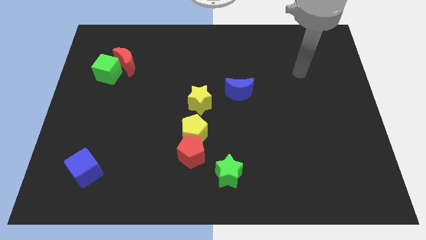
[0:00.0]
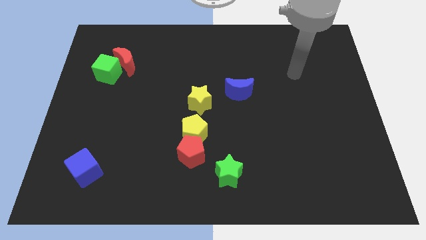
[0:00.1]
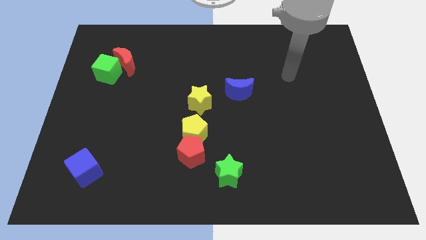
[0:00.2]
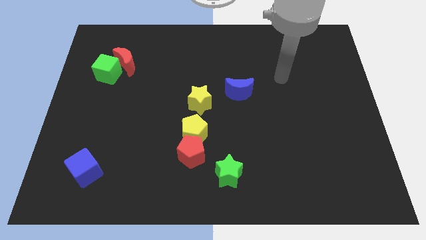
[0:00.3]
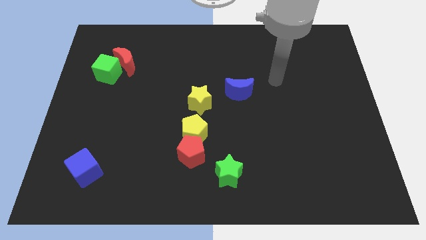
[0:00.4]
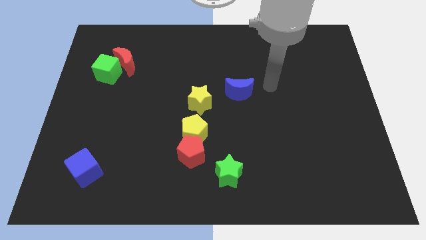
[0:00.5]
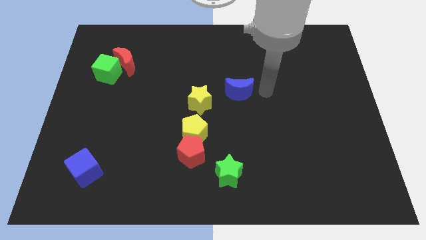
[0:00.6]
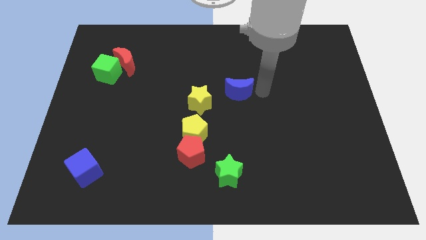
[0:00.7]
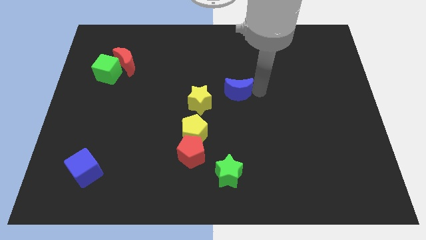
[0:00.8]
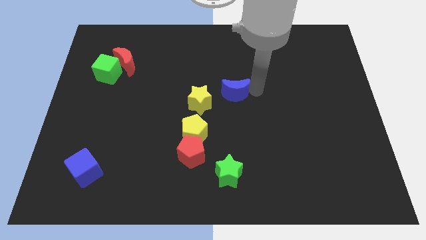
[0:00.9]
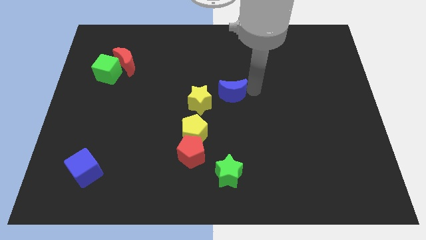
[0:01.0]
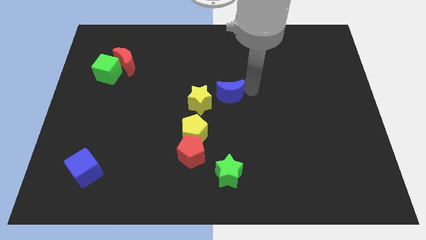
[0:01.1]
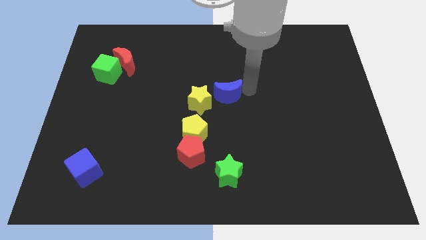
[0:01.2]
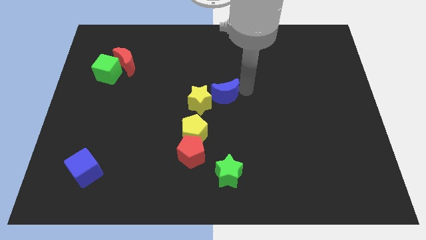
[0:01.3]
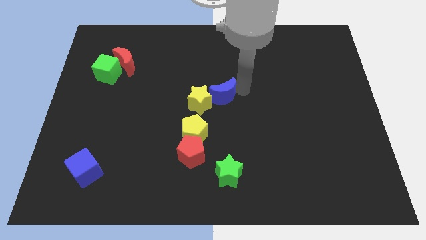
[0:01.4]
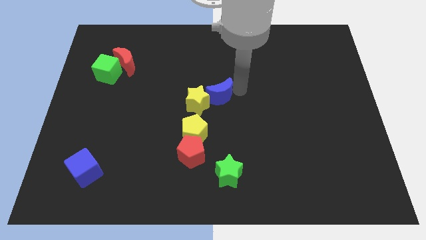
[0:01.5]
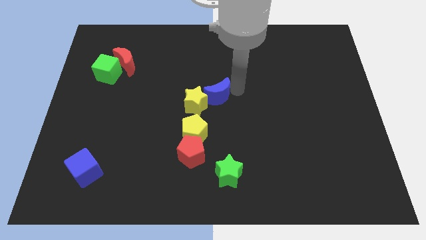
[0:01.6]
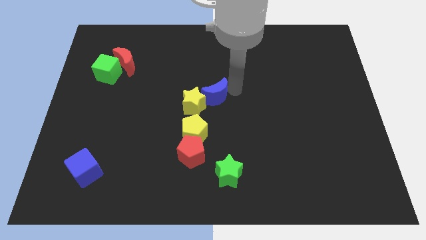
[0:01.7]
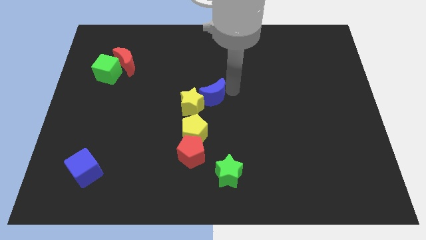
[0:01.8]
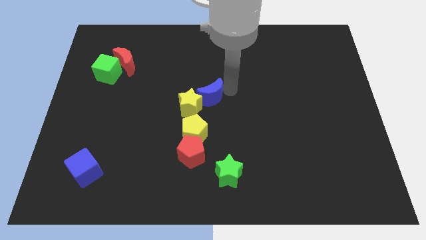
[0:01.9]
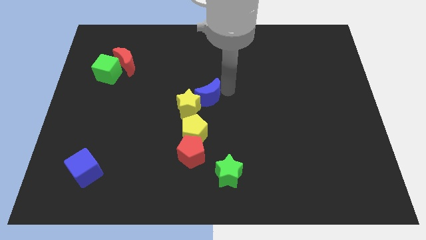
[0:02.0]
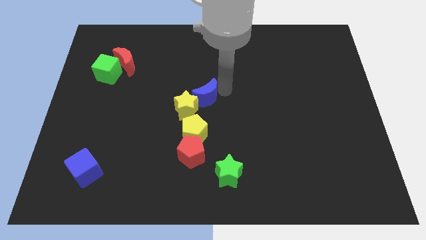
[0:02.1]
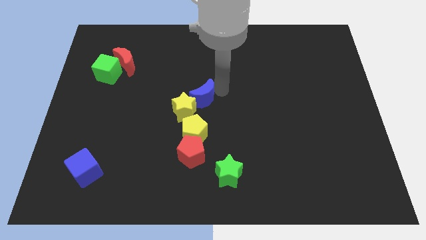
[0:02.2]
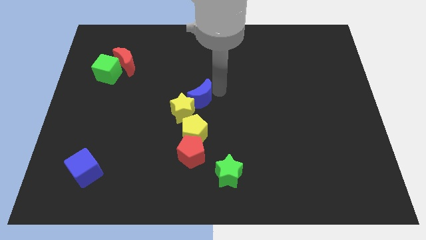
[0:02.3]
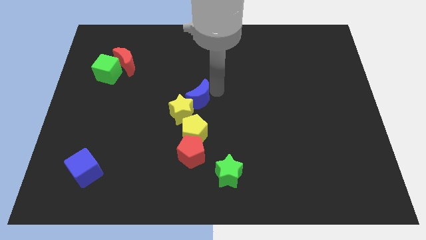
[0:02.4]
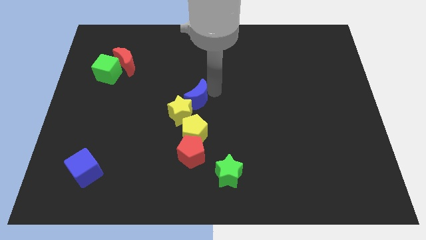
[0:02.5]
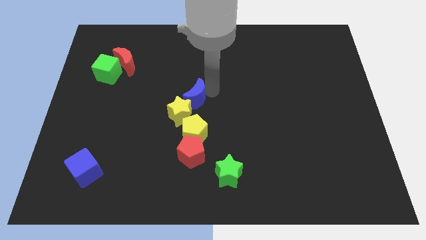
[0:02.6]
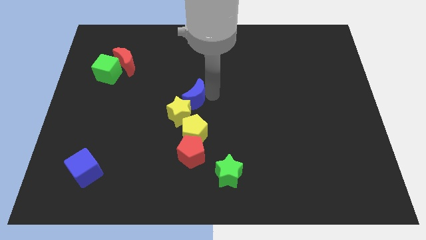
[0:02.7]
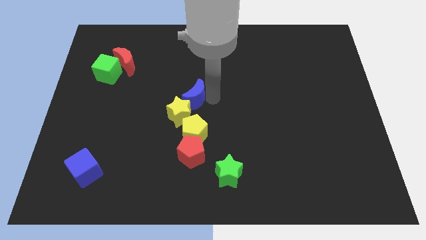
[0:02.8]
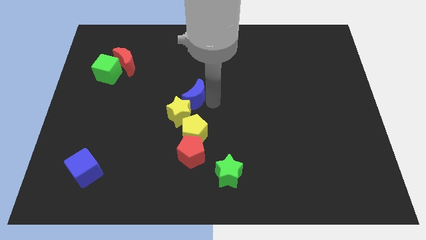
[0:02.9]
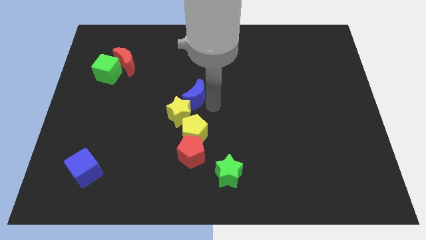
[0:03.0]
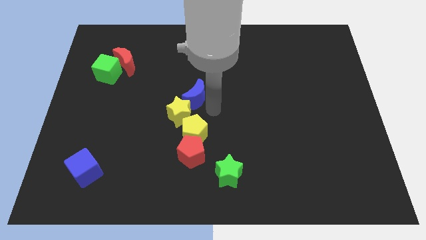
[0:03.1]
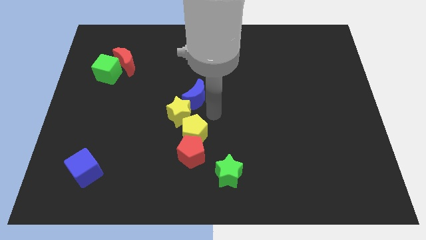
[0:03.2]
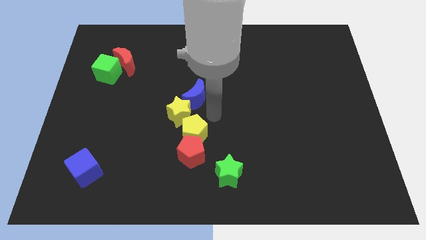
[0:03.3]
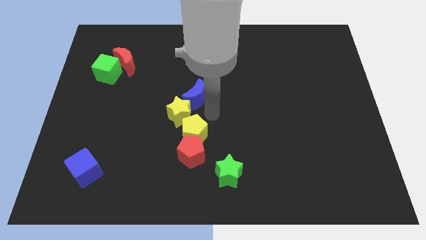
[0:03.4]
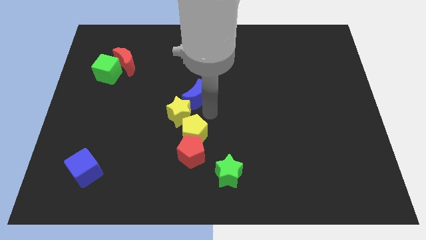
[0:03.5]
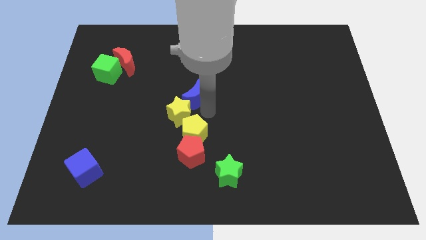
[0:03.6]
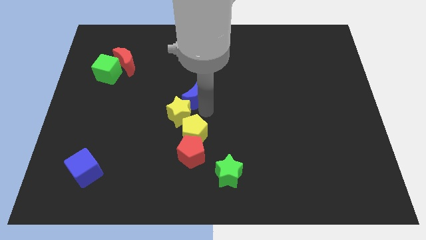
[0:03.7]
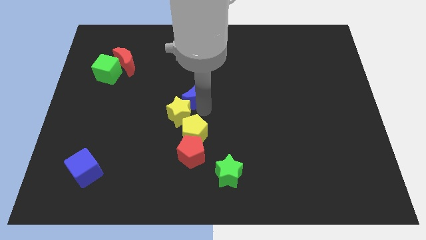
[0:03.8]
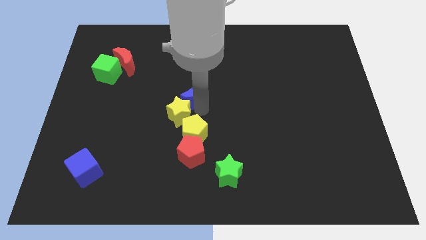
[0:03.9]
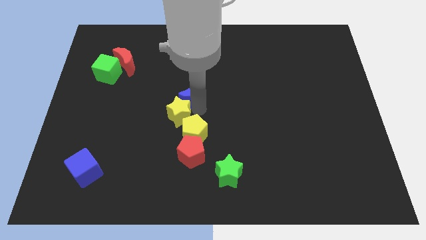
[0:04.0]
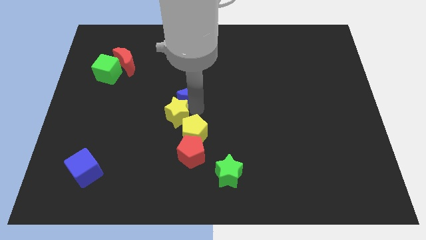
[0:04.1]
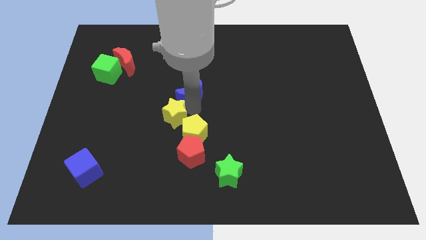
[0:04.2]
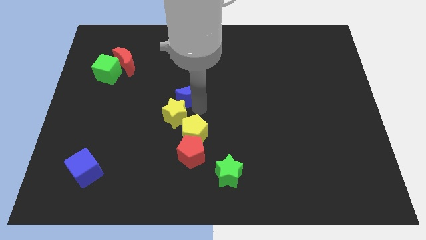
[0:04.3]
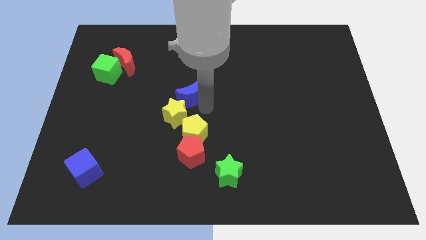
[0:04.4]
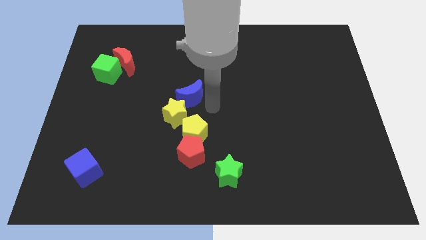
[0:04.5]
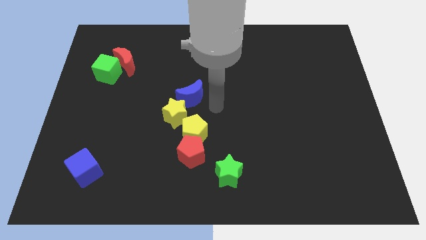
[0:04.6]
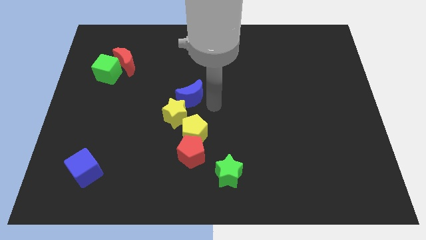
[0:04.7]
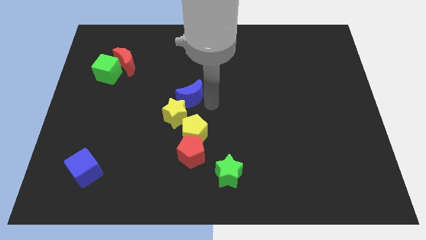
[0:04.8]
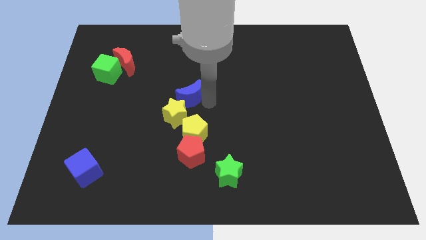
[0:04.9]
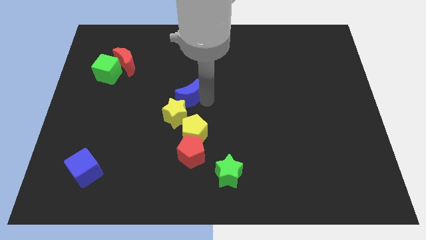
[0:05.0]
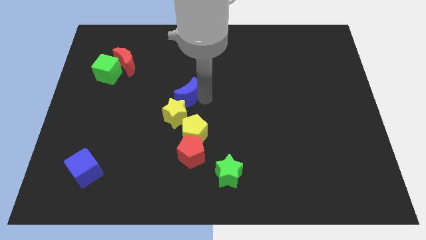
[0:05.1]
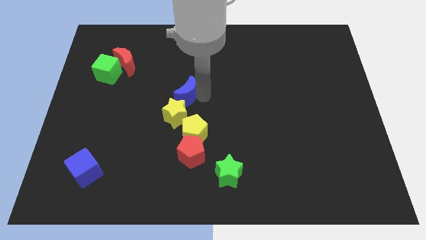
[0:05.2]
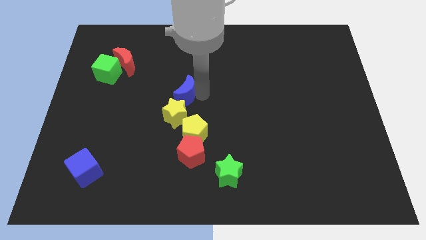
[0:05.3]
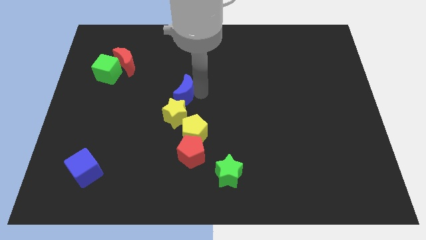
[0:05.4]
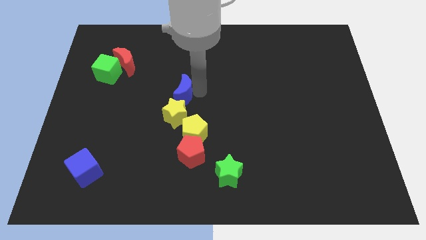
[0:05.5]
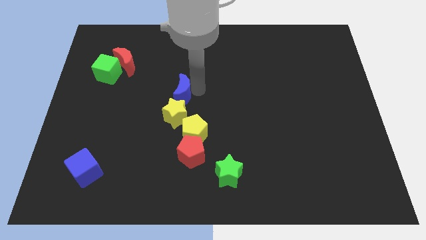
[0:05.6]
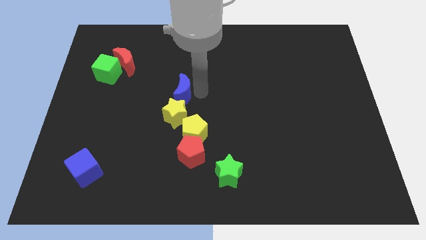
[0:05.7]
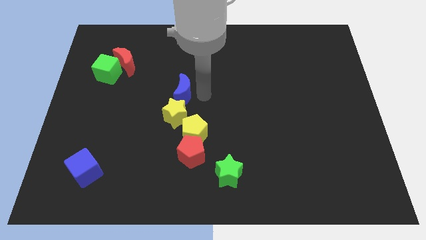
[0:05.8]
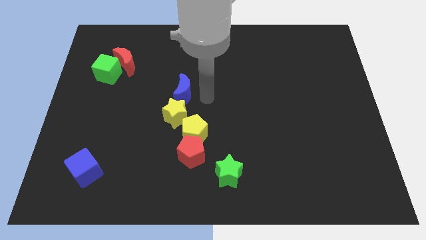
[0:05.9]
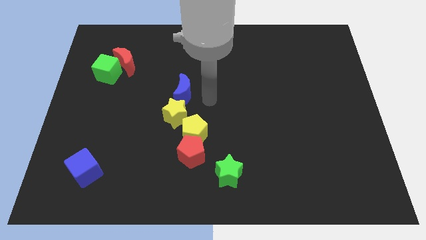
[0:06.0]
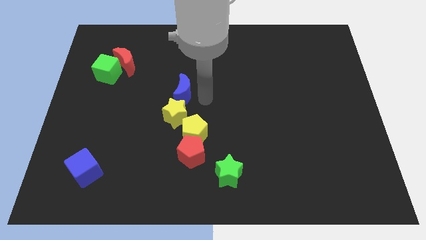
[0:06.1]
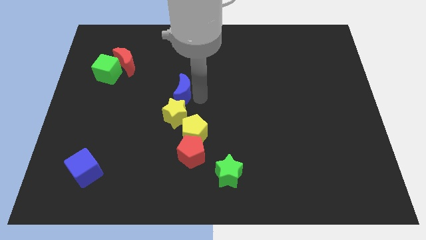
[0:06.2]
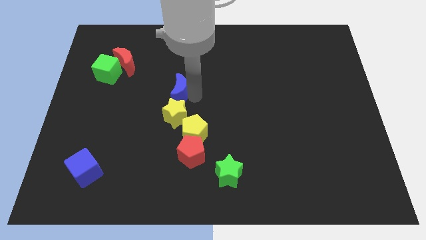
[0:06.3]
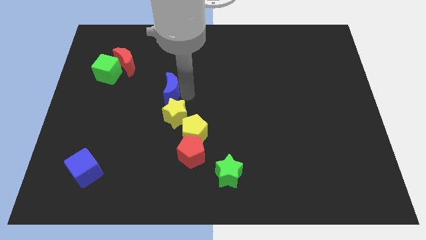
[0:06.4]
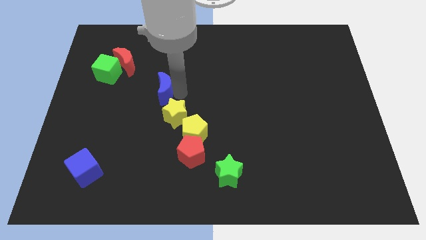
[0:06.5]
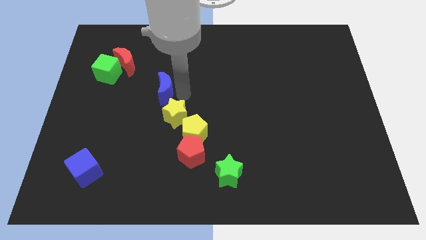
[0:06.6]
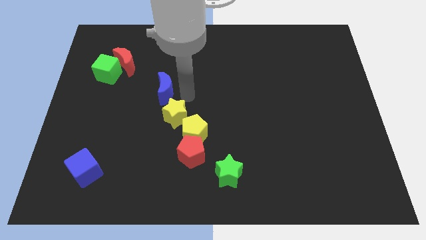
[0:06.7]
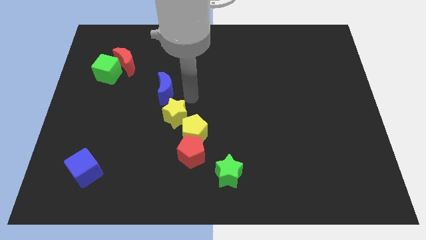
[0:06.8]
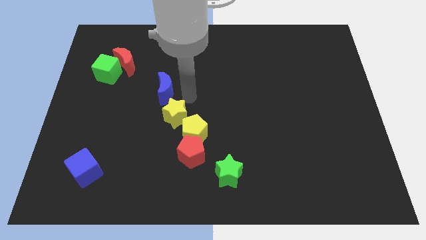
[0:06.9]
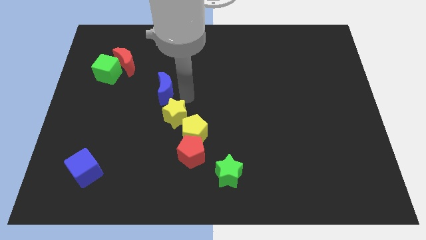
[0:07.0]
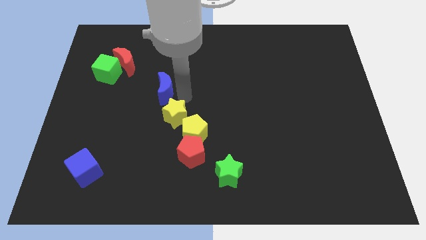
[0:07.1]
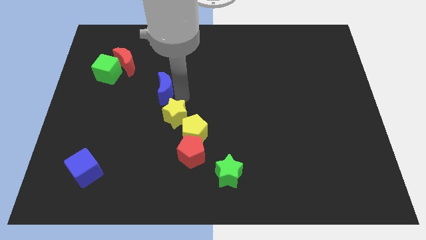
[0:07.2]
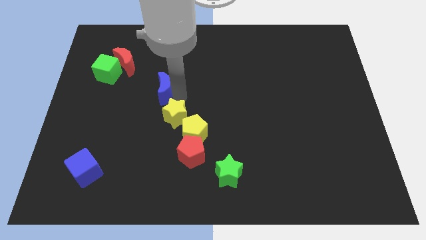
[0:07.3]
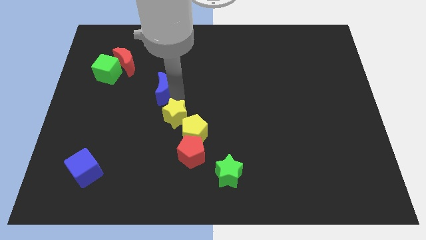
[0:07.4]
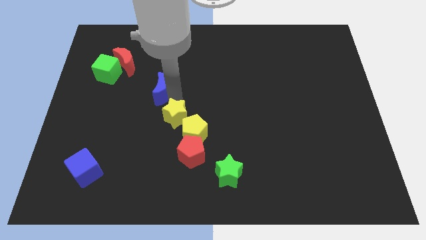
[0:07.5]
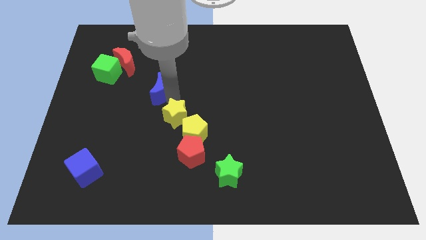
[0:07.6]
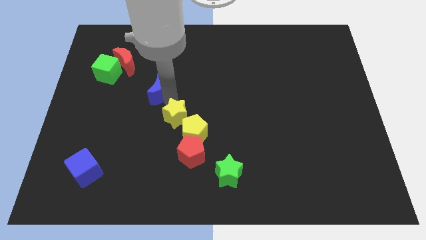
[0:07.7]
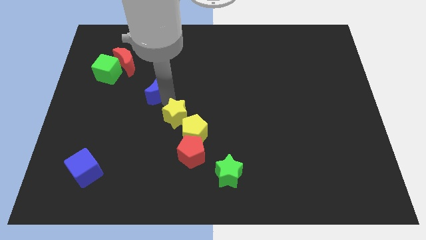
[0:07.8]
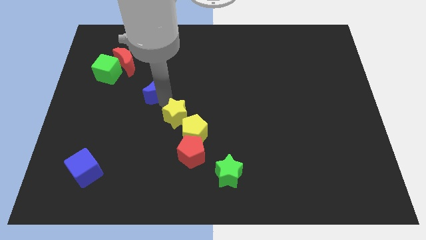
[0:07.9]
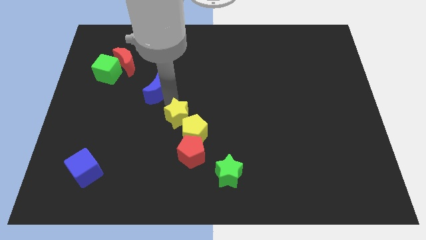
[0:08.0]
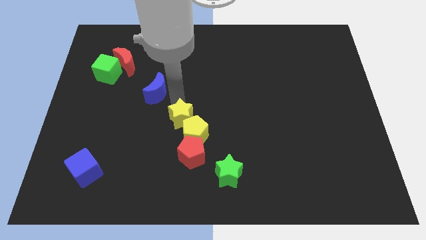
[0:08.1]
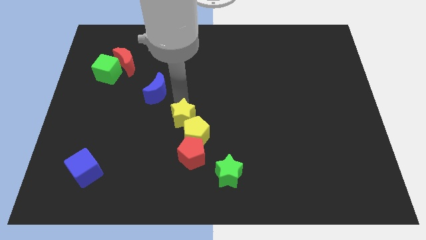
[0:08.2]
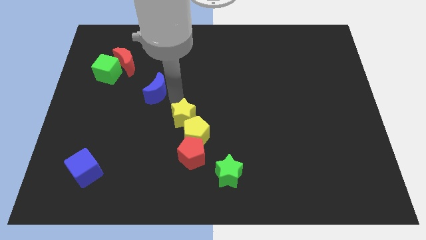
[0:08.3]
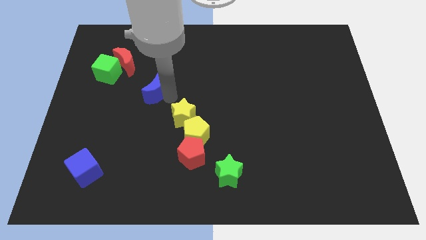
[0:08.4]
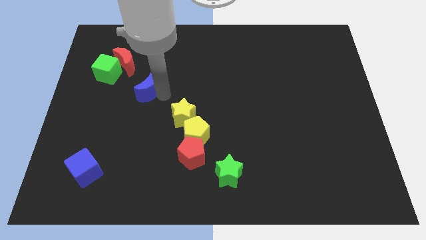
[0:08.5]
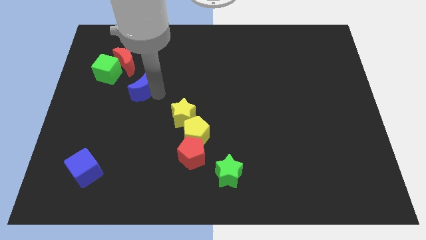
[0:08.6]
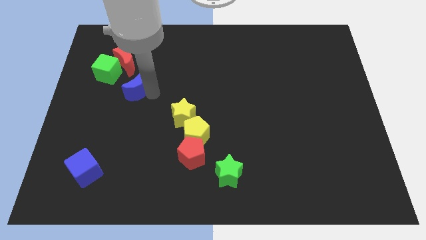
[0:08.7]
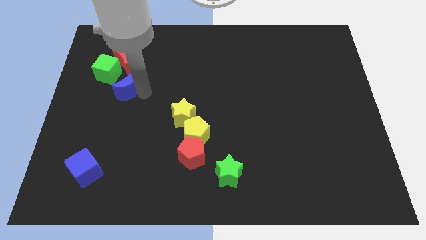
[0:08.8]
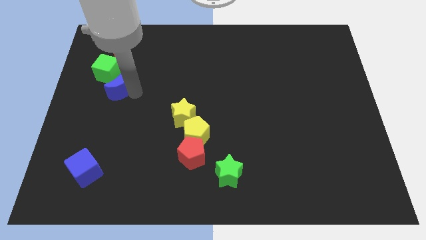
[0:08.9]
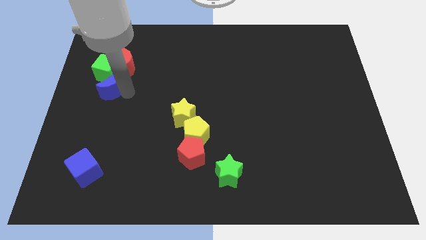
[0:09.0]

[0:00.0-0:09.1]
slide the blue moon close to the green cube
